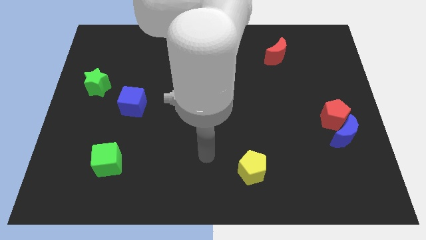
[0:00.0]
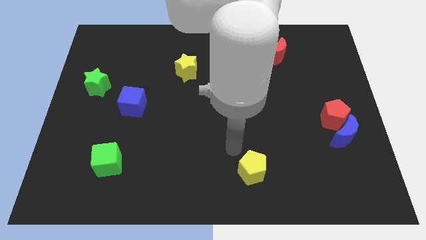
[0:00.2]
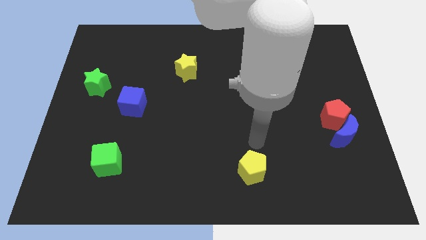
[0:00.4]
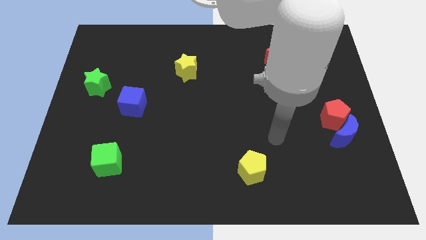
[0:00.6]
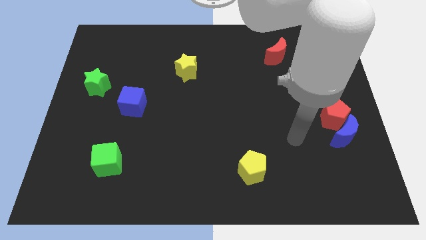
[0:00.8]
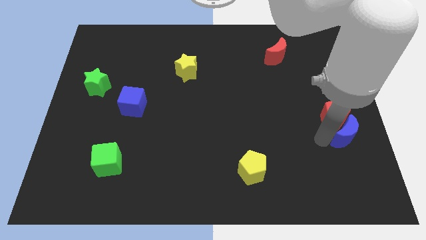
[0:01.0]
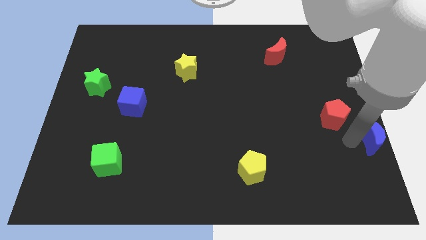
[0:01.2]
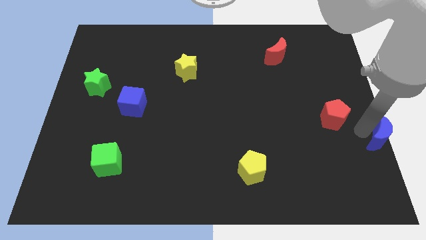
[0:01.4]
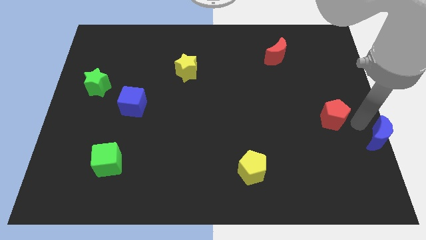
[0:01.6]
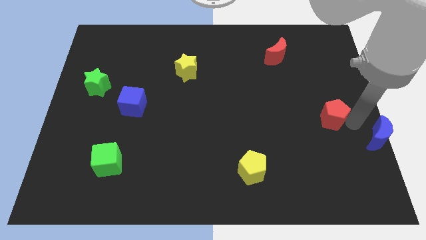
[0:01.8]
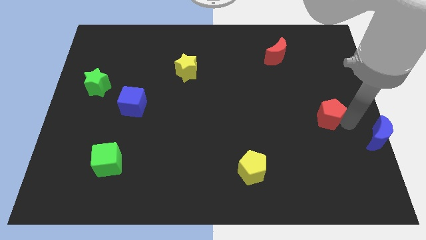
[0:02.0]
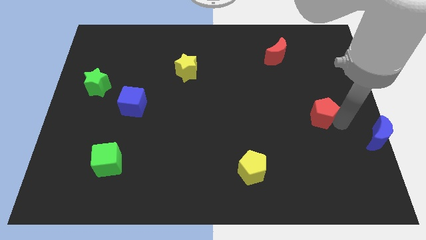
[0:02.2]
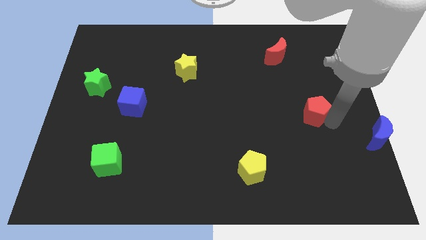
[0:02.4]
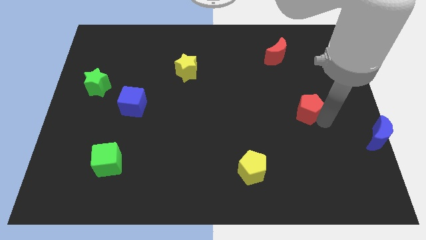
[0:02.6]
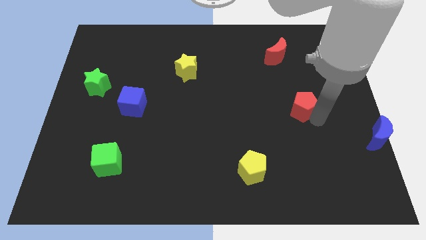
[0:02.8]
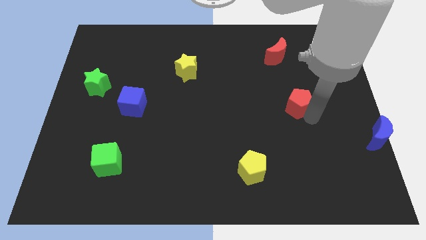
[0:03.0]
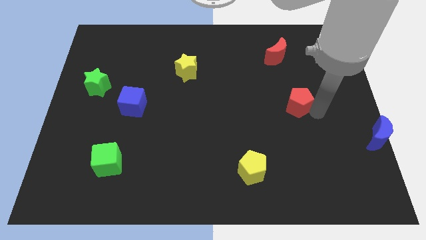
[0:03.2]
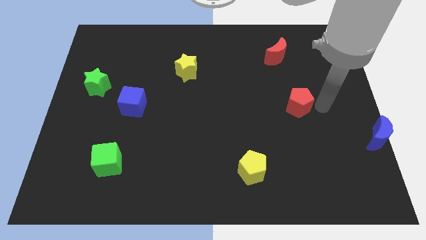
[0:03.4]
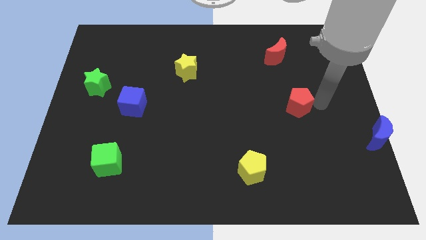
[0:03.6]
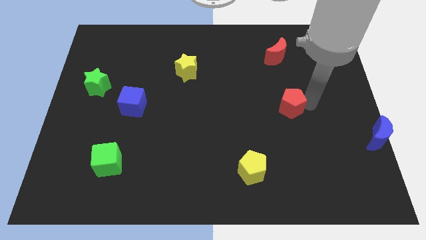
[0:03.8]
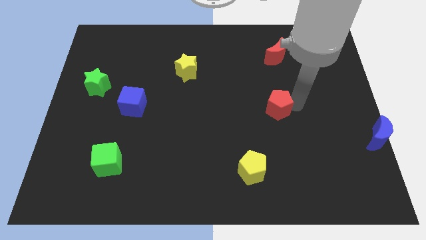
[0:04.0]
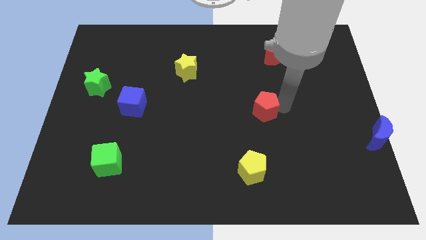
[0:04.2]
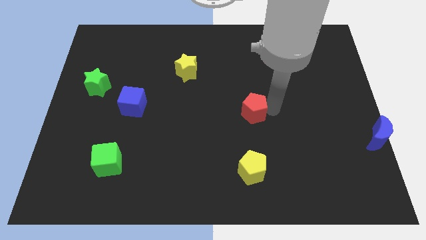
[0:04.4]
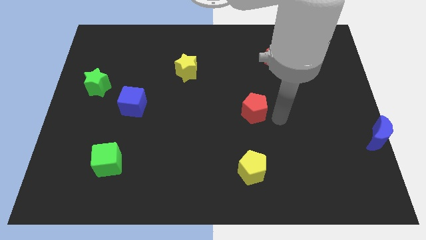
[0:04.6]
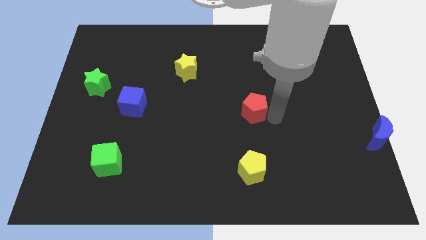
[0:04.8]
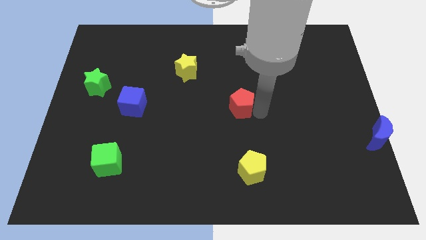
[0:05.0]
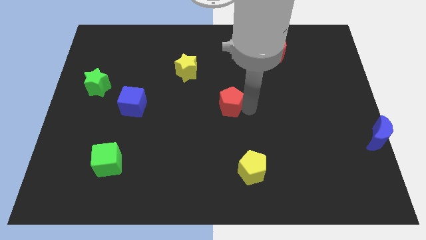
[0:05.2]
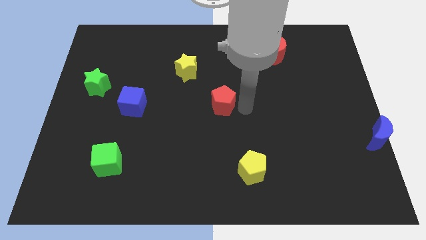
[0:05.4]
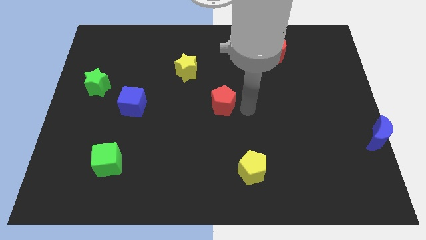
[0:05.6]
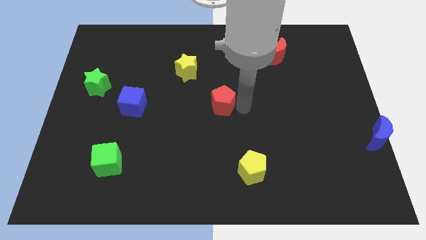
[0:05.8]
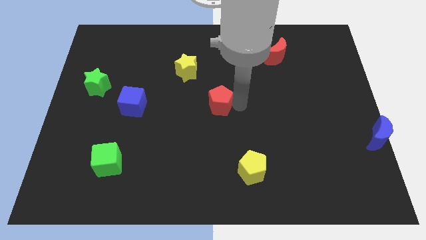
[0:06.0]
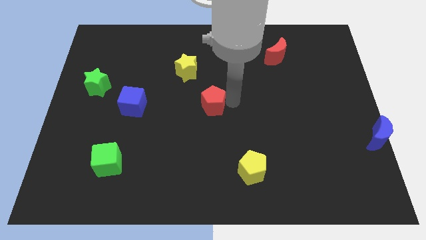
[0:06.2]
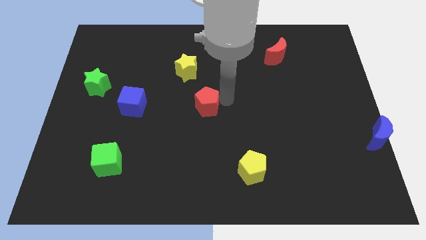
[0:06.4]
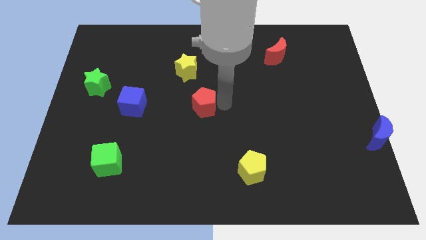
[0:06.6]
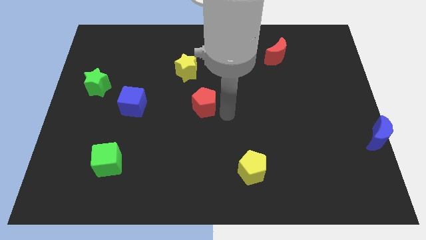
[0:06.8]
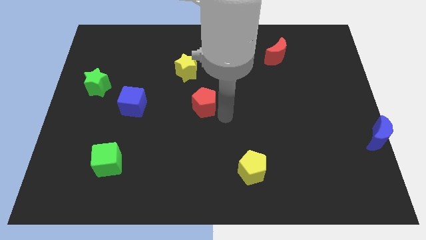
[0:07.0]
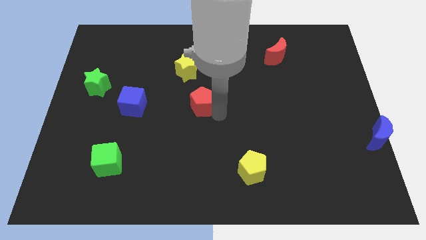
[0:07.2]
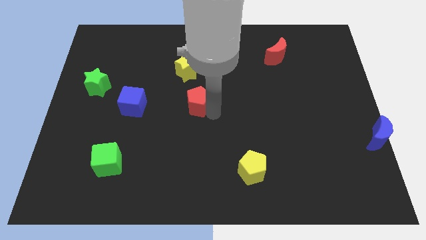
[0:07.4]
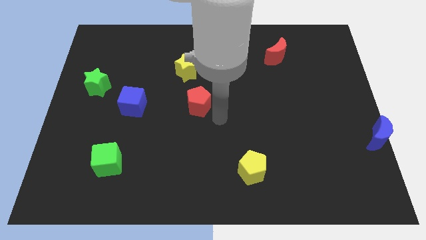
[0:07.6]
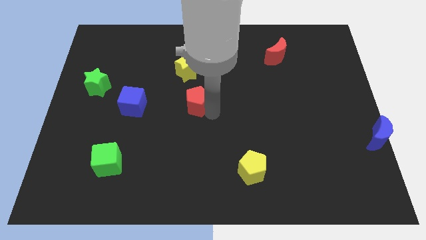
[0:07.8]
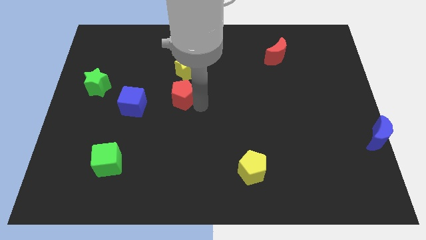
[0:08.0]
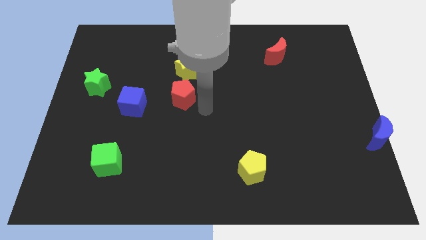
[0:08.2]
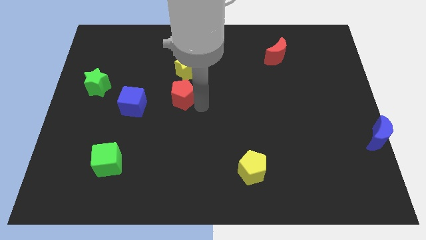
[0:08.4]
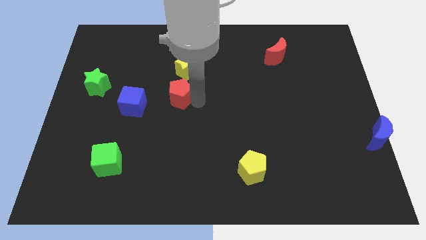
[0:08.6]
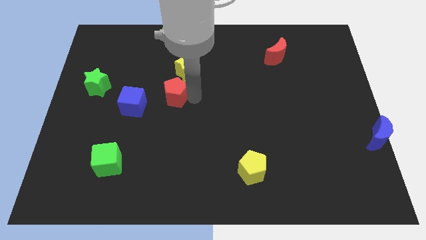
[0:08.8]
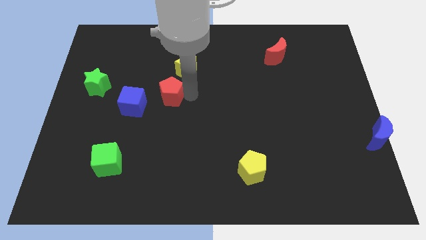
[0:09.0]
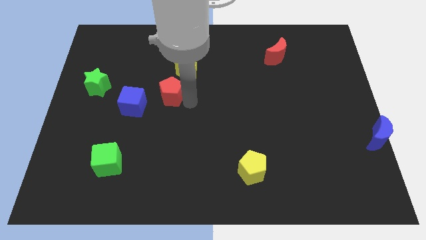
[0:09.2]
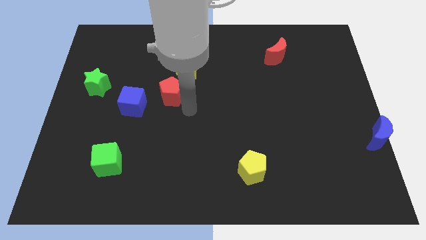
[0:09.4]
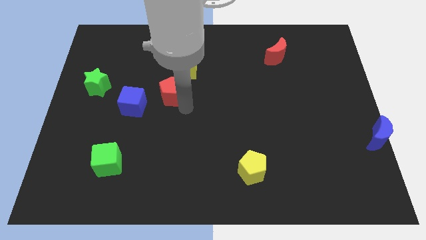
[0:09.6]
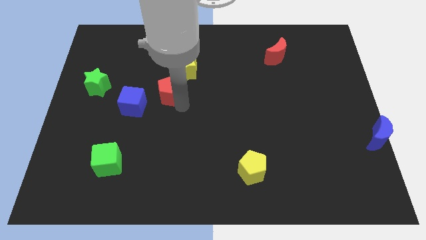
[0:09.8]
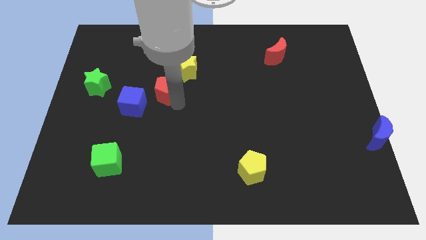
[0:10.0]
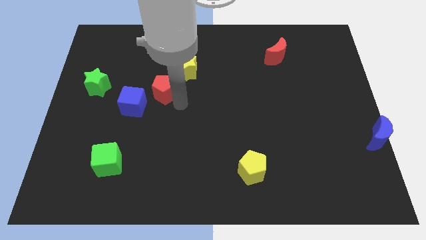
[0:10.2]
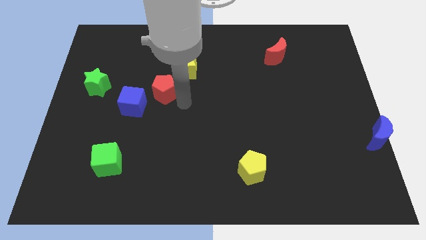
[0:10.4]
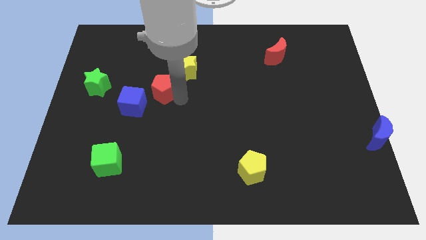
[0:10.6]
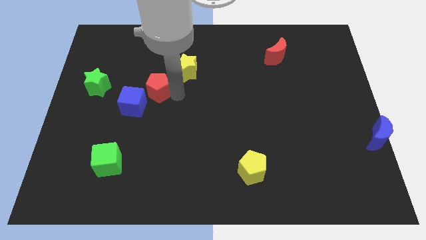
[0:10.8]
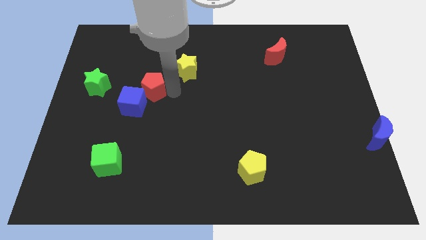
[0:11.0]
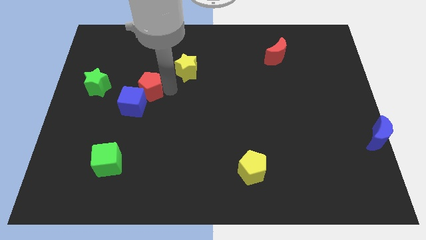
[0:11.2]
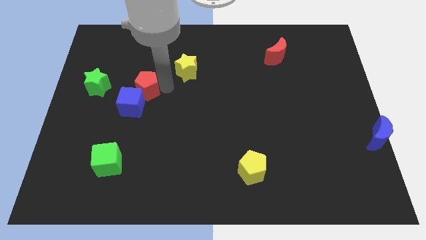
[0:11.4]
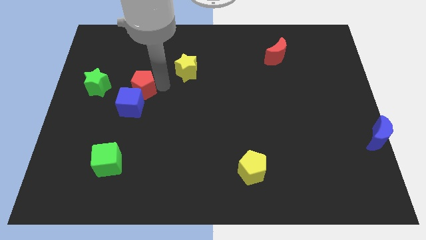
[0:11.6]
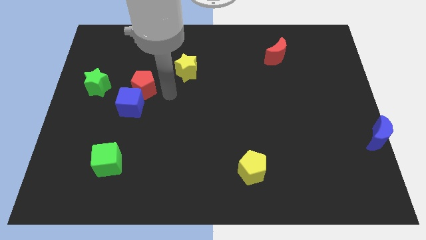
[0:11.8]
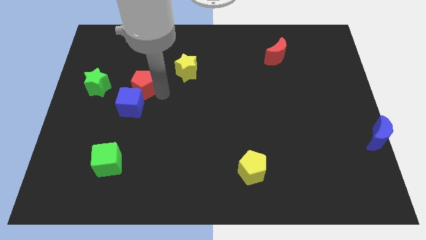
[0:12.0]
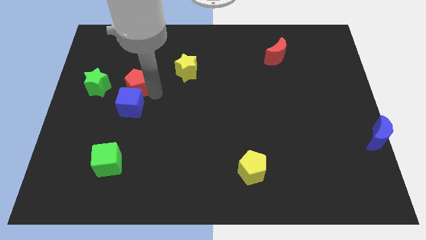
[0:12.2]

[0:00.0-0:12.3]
put the red pentagon to the top left of the blue cube

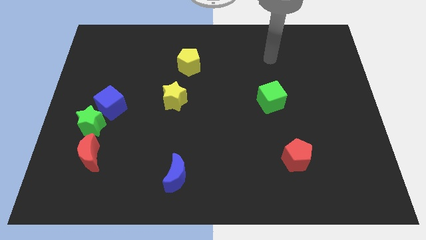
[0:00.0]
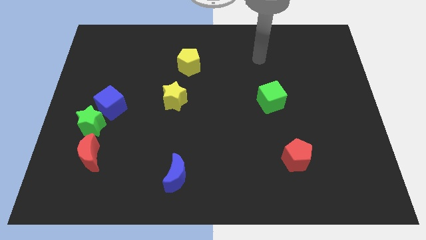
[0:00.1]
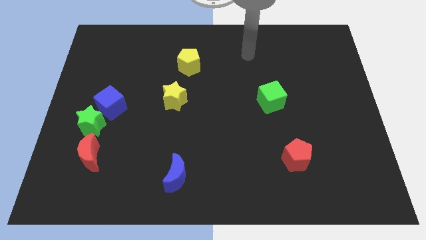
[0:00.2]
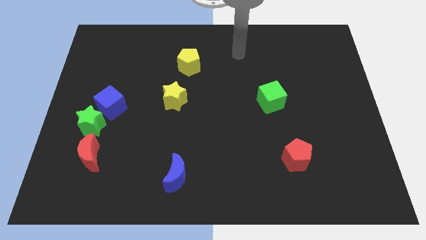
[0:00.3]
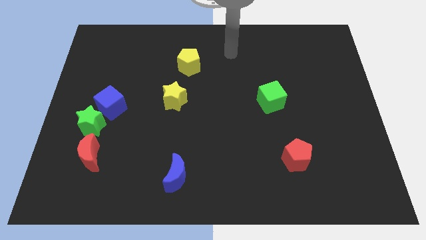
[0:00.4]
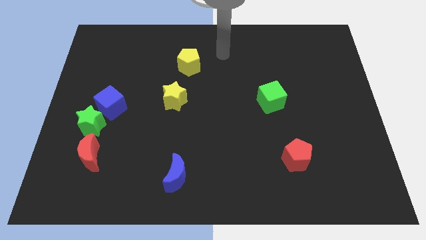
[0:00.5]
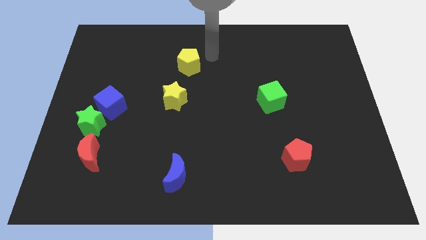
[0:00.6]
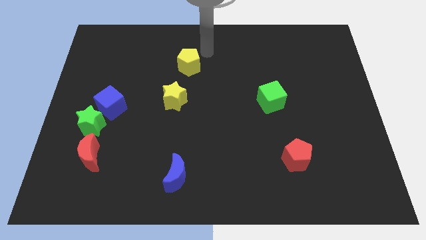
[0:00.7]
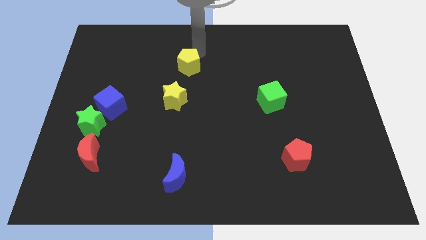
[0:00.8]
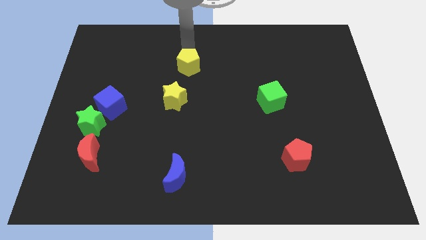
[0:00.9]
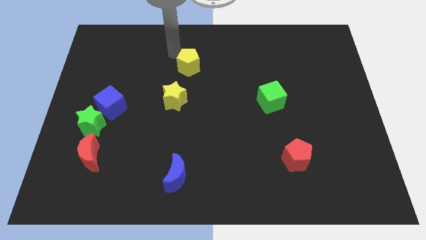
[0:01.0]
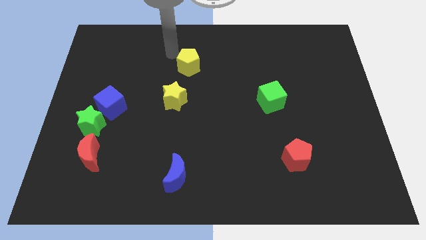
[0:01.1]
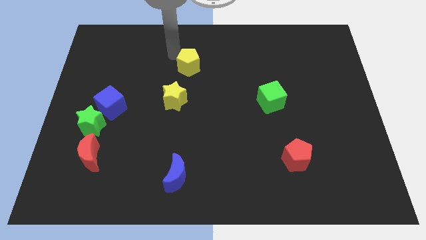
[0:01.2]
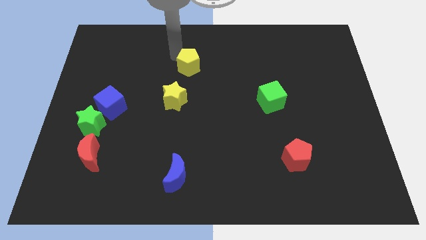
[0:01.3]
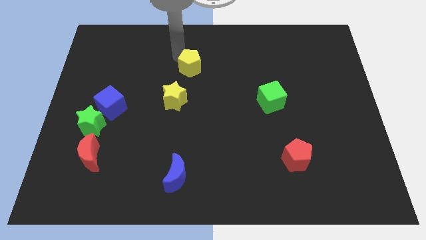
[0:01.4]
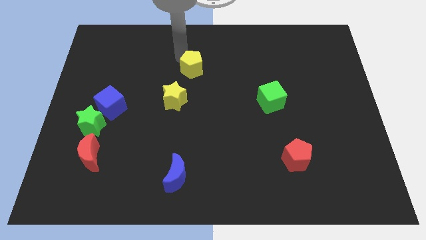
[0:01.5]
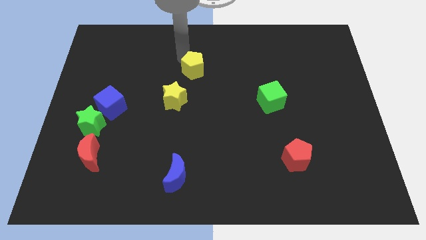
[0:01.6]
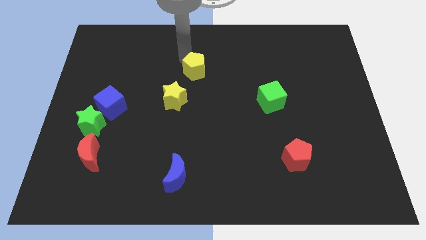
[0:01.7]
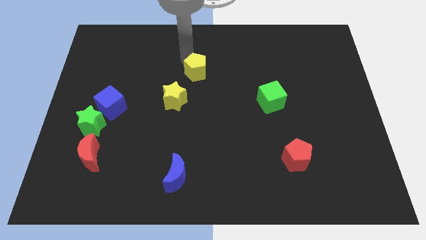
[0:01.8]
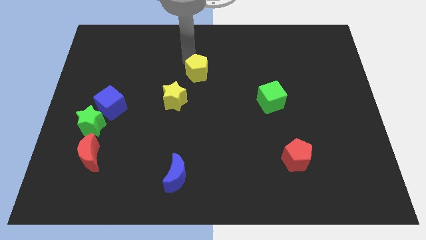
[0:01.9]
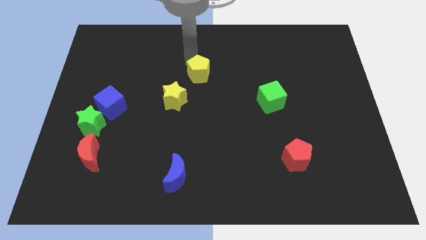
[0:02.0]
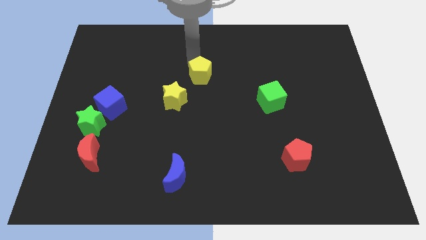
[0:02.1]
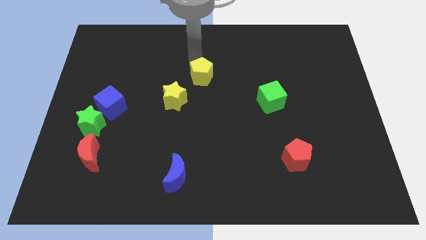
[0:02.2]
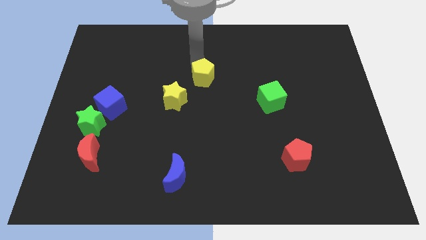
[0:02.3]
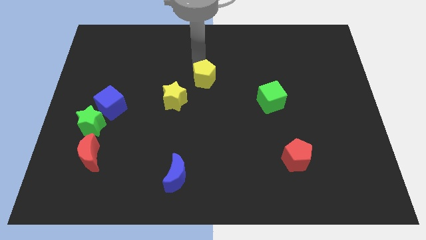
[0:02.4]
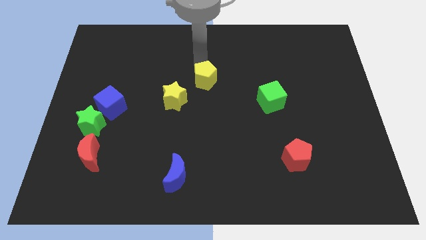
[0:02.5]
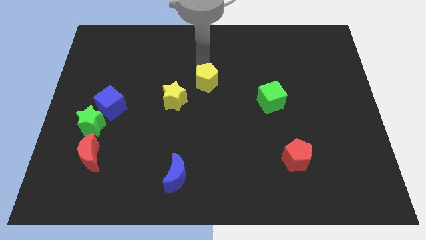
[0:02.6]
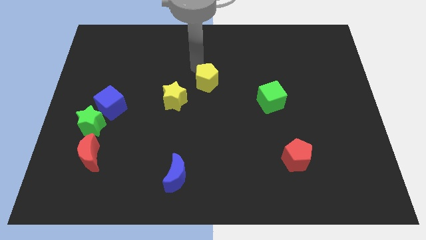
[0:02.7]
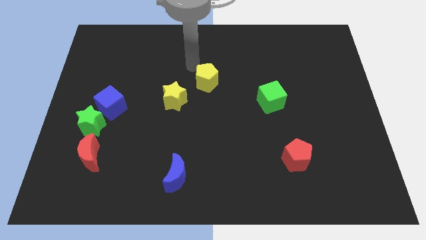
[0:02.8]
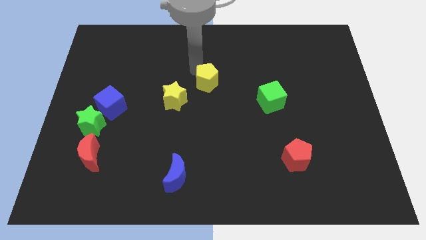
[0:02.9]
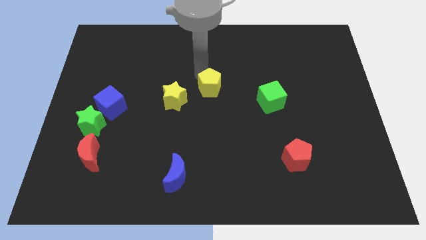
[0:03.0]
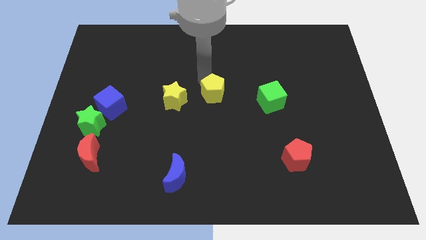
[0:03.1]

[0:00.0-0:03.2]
push the yellow pentagon left of the green cube
